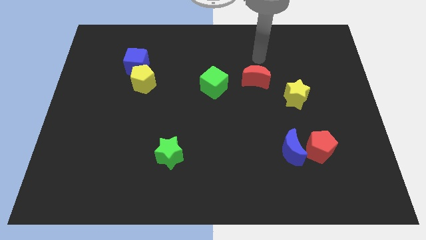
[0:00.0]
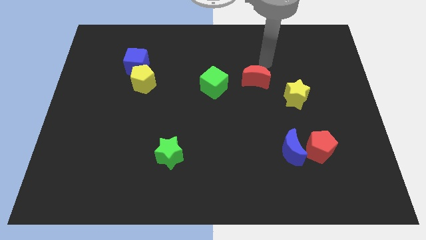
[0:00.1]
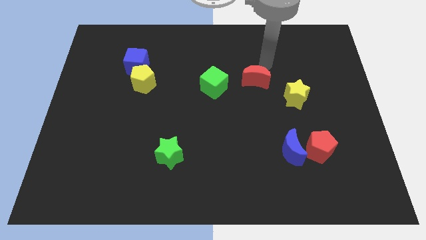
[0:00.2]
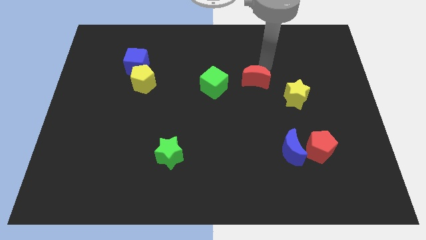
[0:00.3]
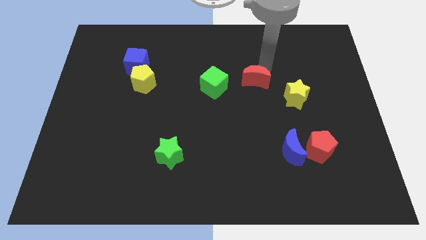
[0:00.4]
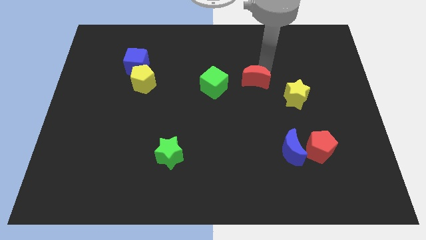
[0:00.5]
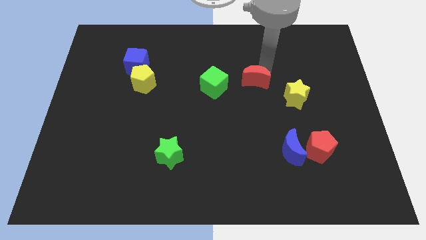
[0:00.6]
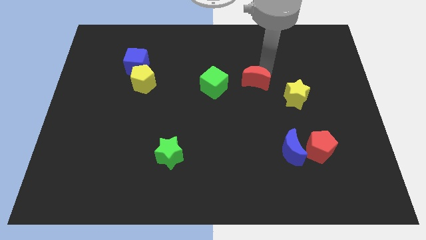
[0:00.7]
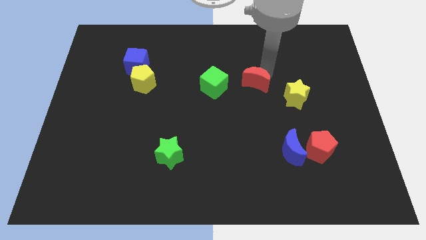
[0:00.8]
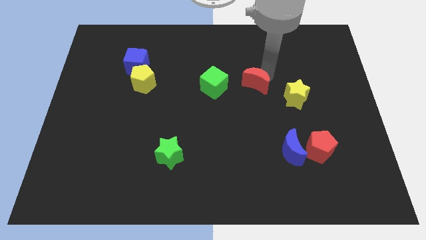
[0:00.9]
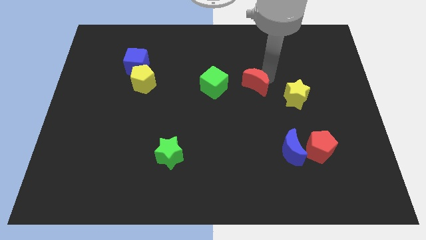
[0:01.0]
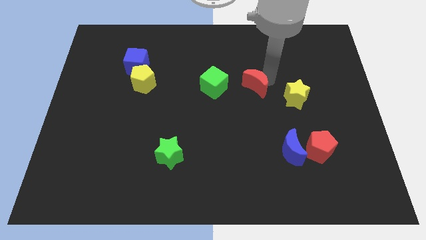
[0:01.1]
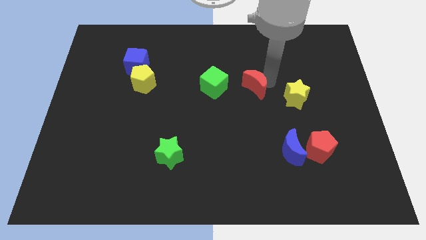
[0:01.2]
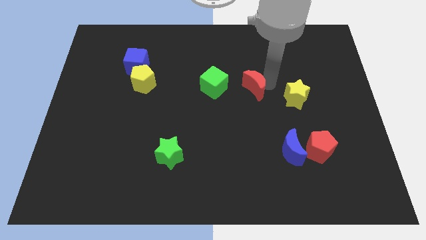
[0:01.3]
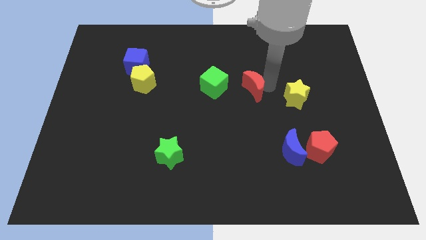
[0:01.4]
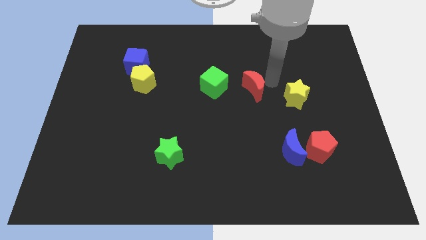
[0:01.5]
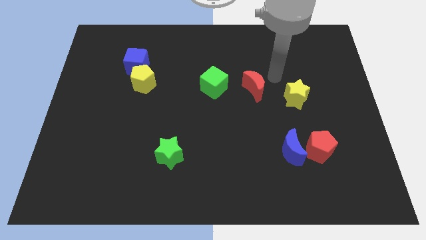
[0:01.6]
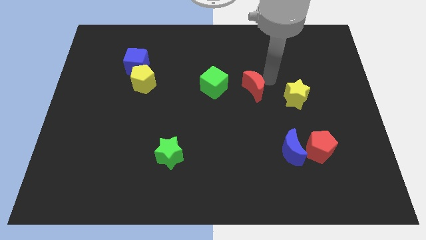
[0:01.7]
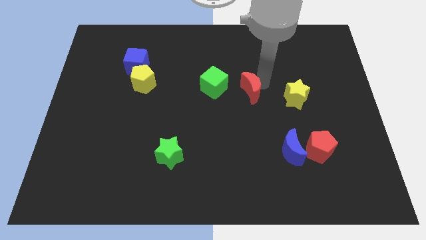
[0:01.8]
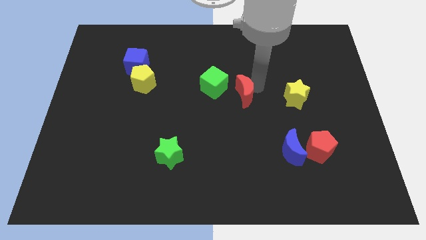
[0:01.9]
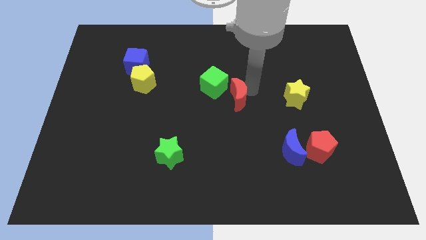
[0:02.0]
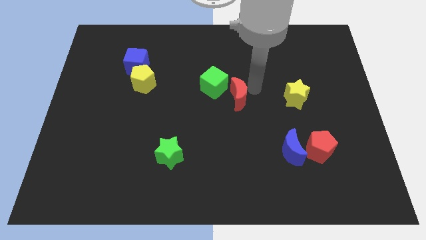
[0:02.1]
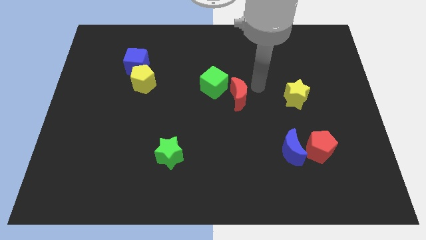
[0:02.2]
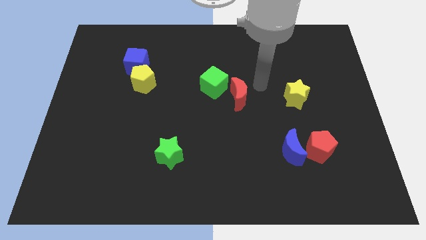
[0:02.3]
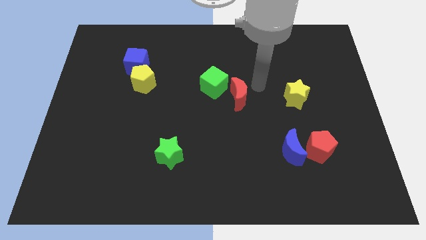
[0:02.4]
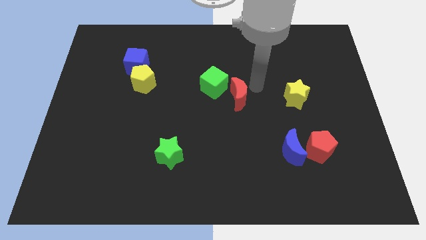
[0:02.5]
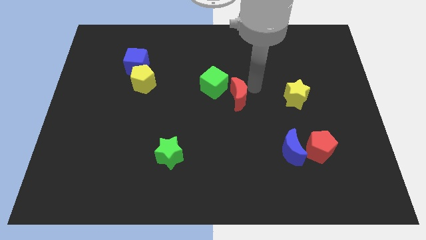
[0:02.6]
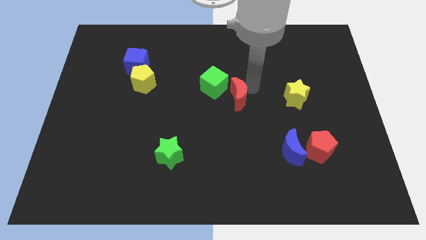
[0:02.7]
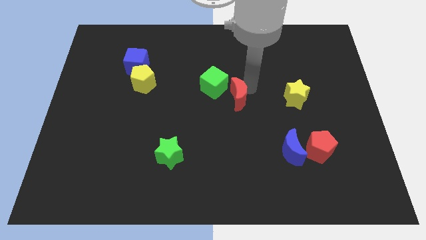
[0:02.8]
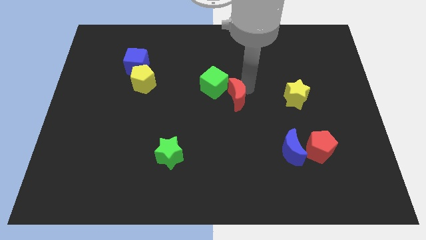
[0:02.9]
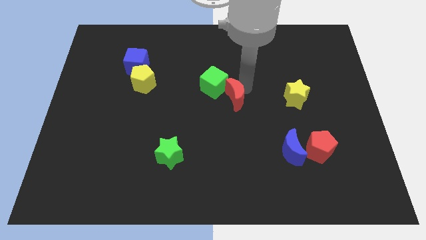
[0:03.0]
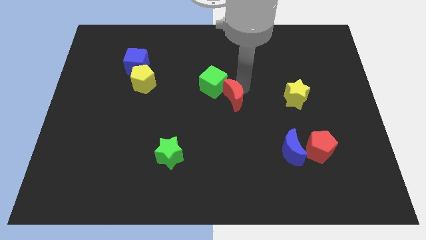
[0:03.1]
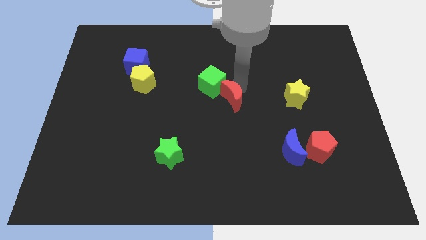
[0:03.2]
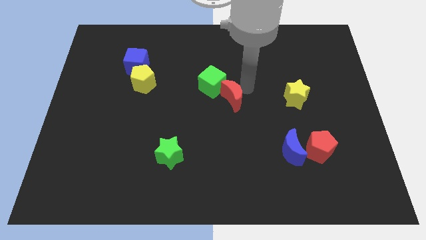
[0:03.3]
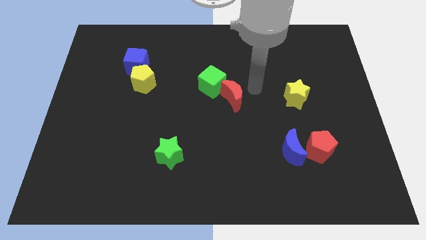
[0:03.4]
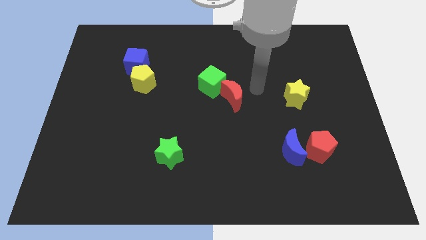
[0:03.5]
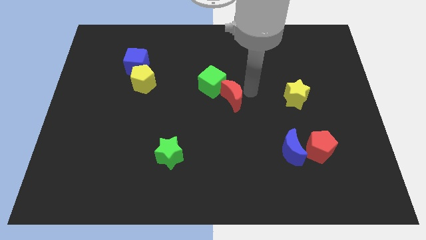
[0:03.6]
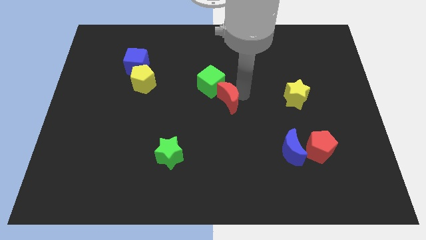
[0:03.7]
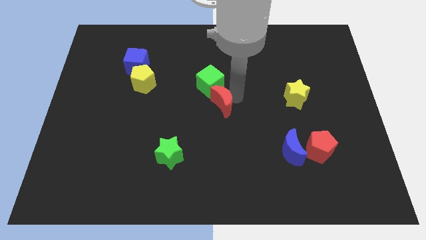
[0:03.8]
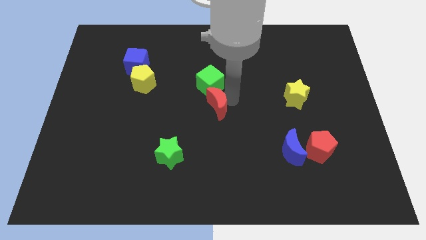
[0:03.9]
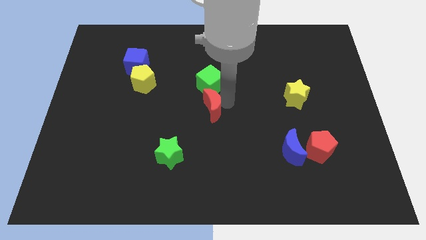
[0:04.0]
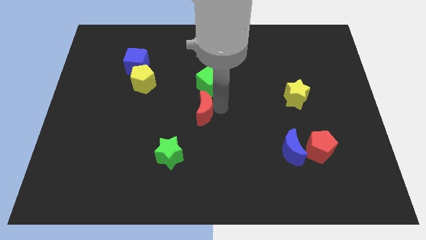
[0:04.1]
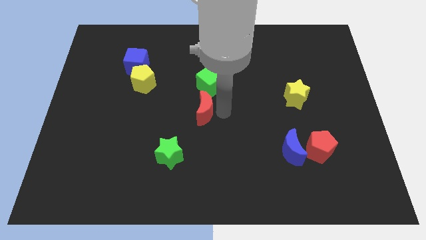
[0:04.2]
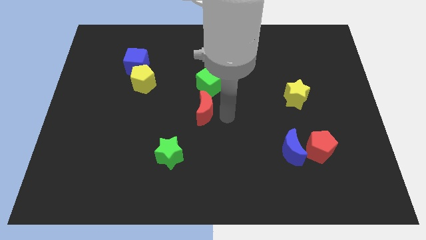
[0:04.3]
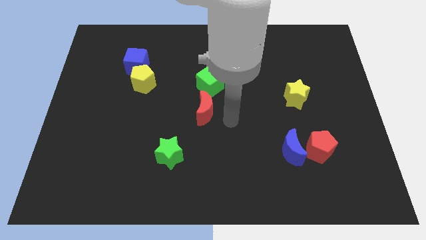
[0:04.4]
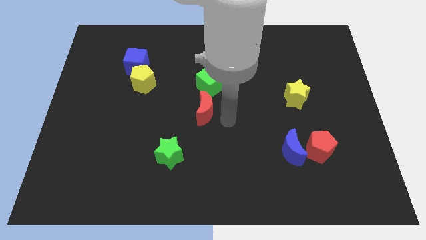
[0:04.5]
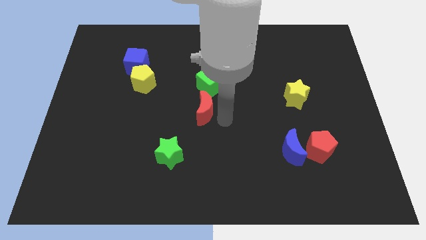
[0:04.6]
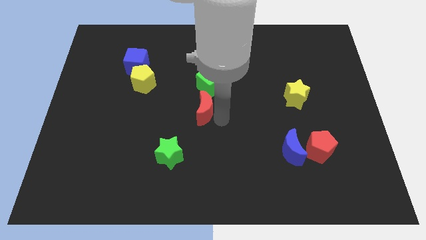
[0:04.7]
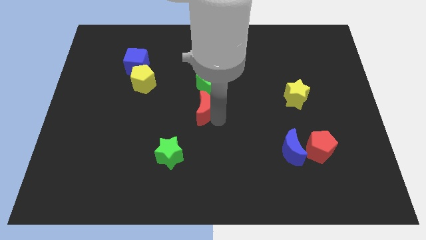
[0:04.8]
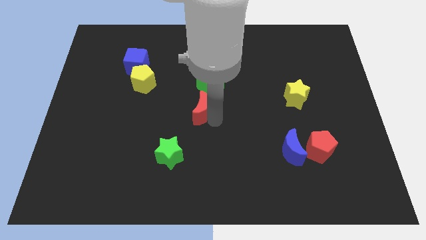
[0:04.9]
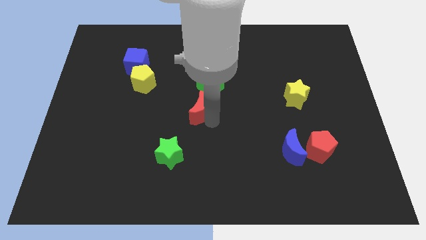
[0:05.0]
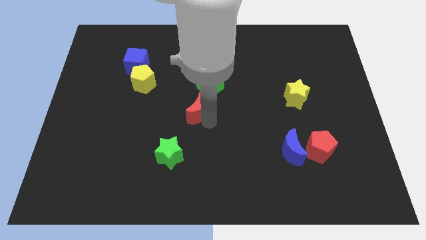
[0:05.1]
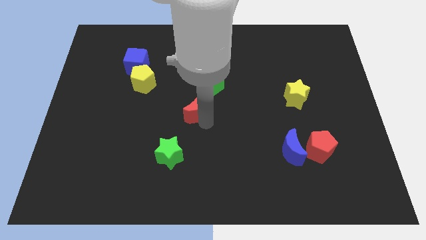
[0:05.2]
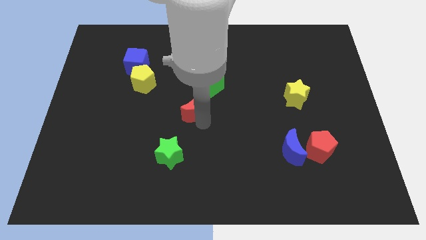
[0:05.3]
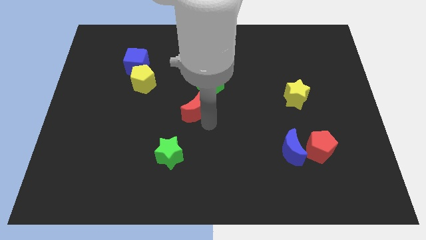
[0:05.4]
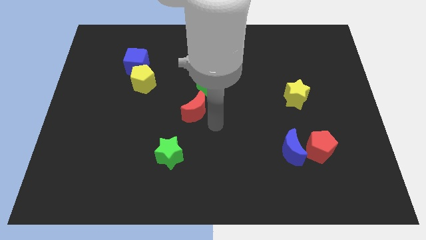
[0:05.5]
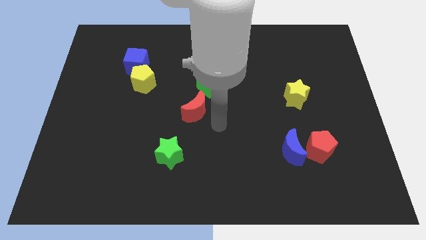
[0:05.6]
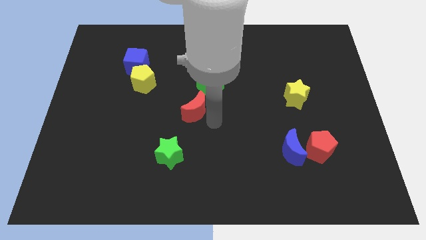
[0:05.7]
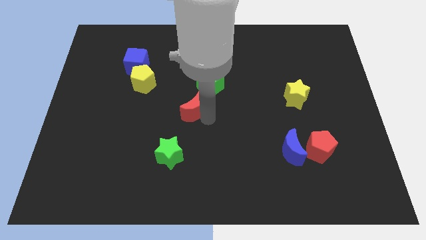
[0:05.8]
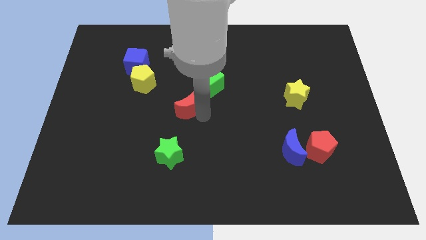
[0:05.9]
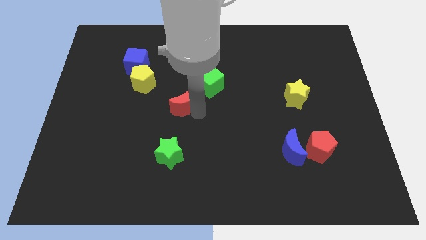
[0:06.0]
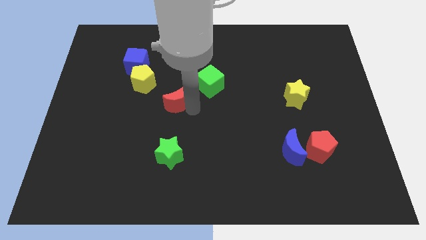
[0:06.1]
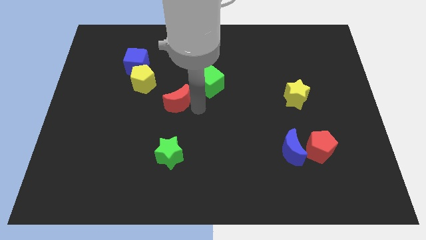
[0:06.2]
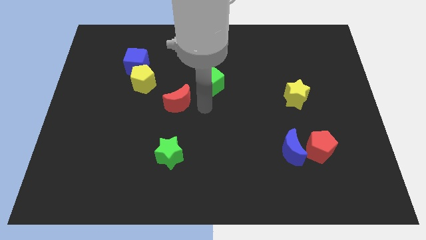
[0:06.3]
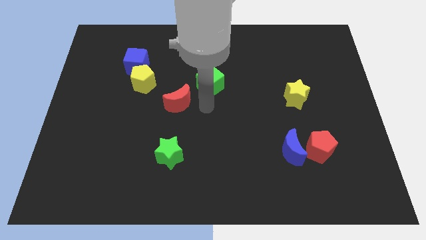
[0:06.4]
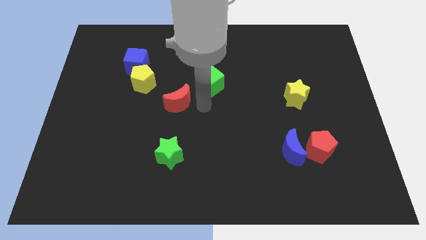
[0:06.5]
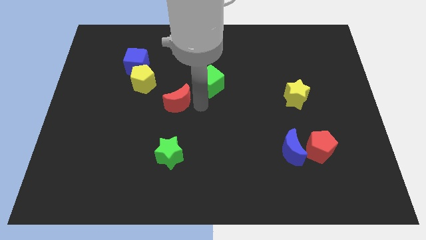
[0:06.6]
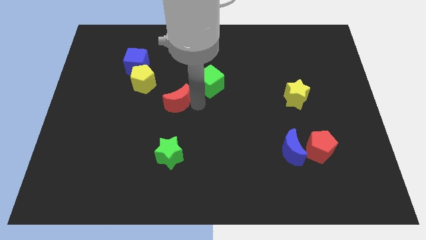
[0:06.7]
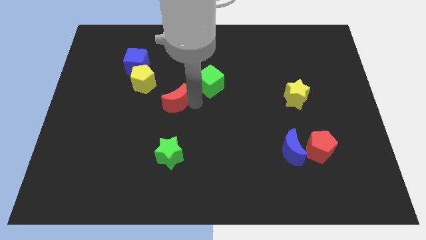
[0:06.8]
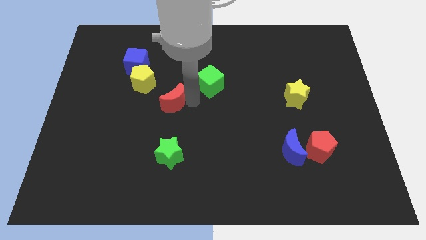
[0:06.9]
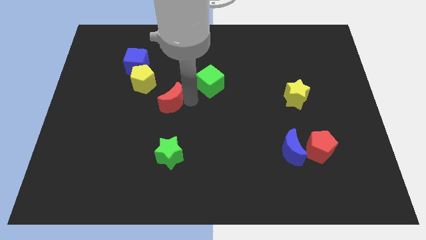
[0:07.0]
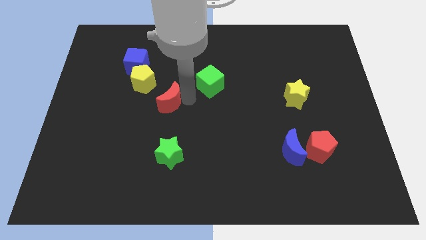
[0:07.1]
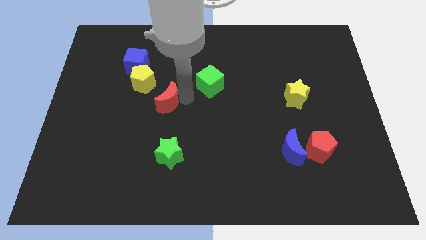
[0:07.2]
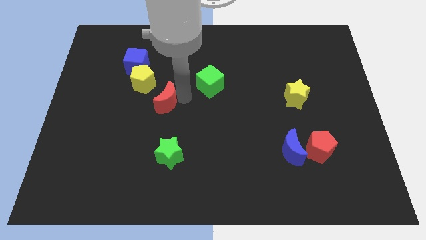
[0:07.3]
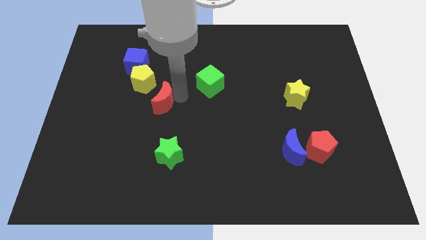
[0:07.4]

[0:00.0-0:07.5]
slide the red moon left
